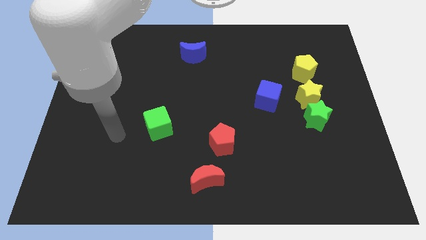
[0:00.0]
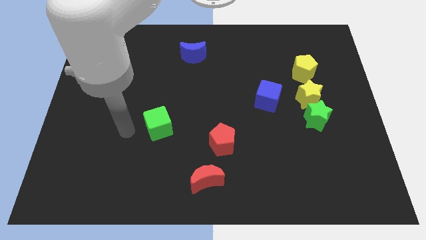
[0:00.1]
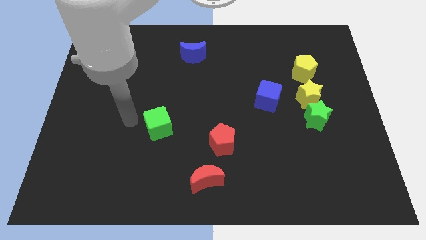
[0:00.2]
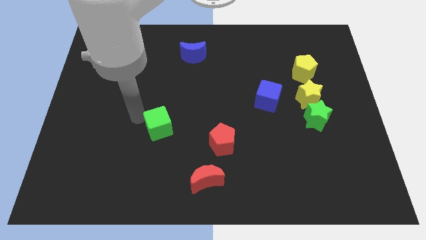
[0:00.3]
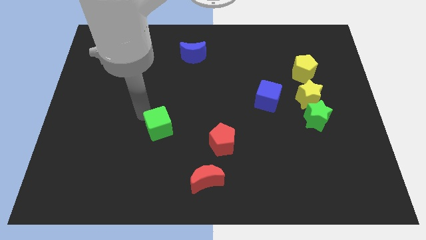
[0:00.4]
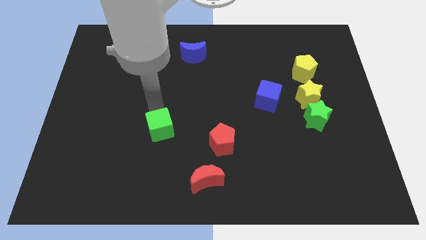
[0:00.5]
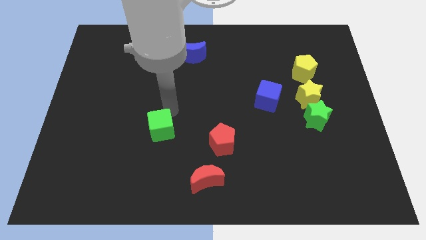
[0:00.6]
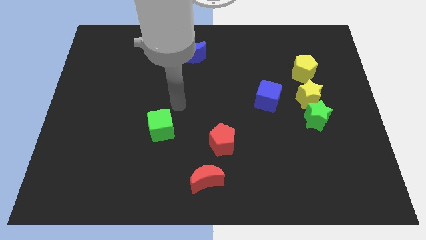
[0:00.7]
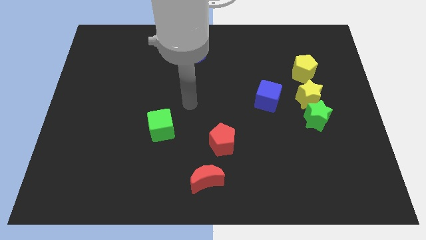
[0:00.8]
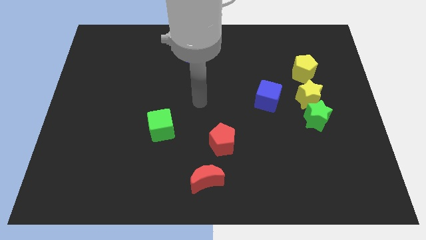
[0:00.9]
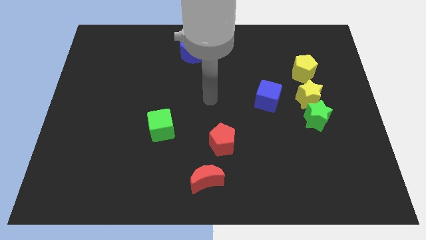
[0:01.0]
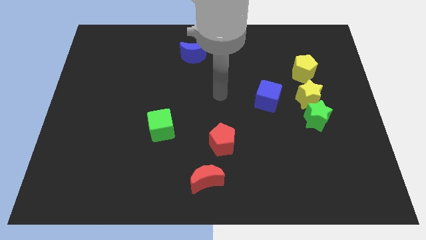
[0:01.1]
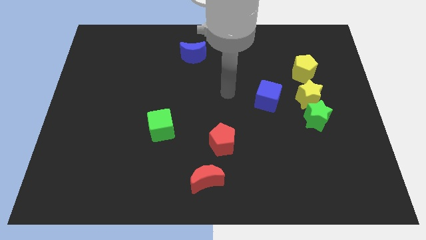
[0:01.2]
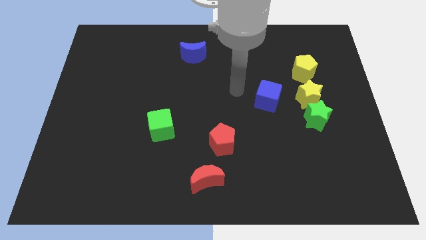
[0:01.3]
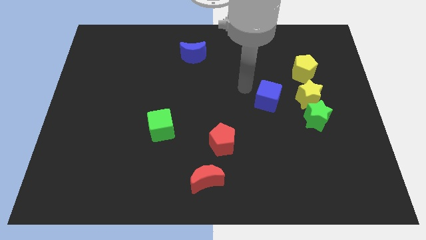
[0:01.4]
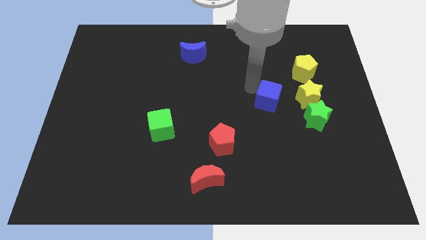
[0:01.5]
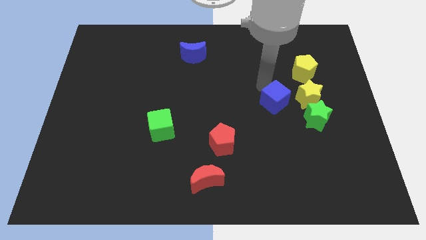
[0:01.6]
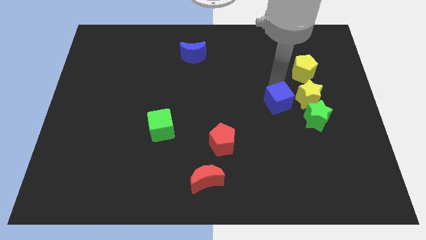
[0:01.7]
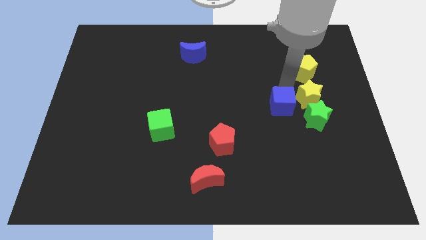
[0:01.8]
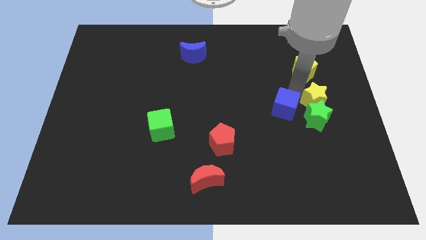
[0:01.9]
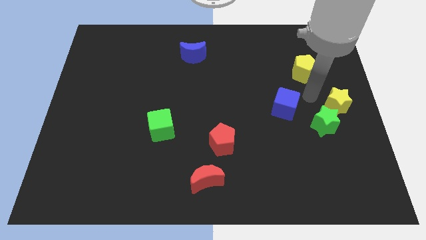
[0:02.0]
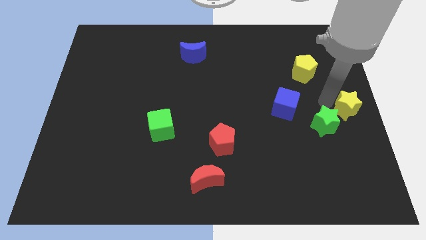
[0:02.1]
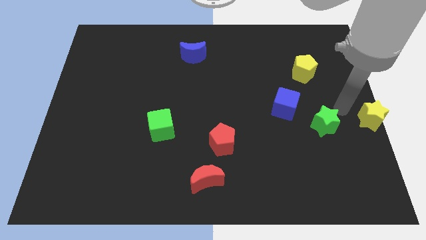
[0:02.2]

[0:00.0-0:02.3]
move the green star away from the yellow star

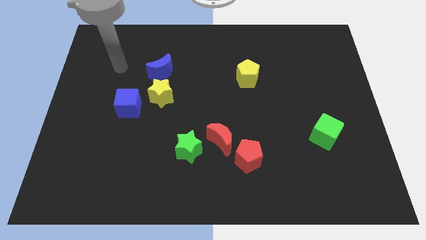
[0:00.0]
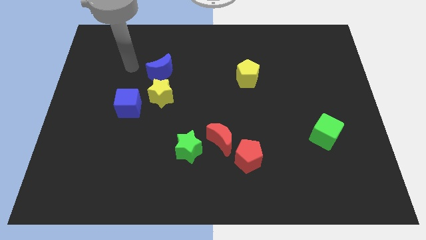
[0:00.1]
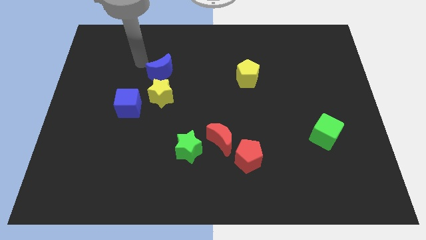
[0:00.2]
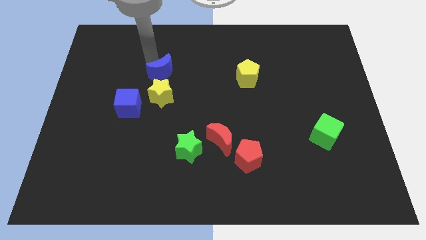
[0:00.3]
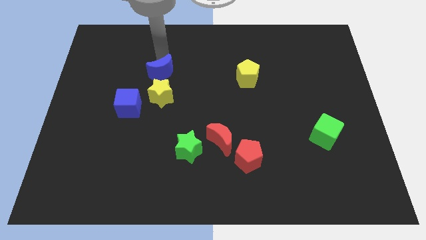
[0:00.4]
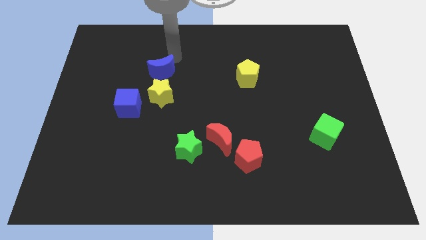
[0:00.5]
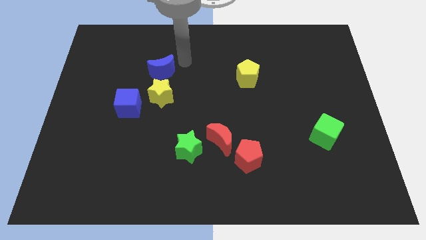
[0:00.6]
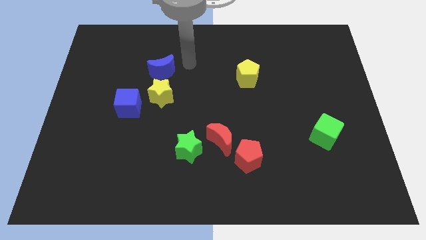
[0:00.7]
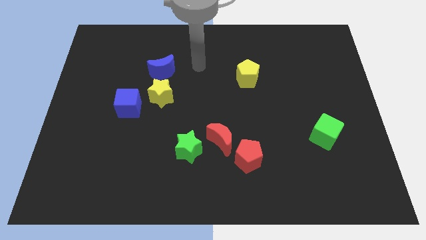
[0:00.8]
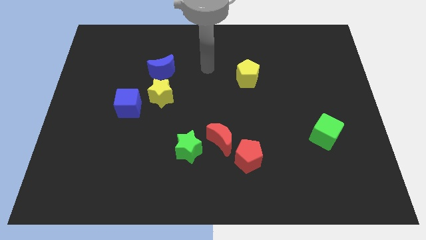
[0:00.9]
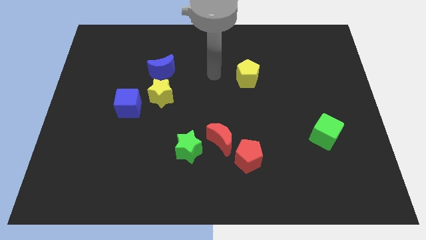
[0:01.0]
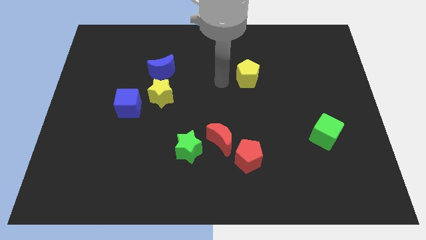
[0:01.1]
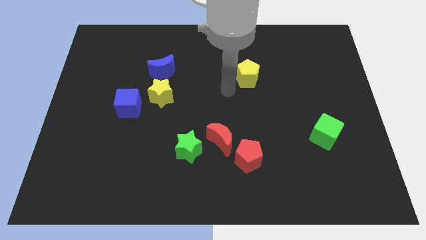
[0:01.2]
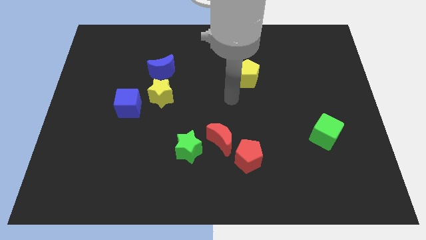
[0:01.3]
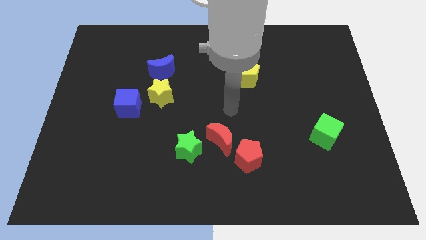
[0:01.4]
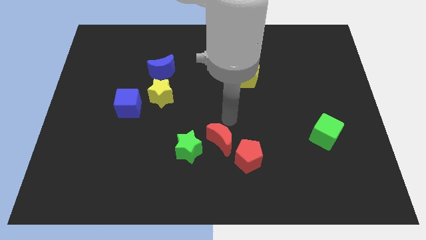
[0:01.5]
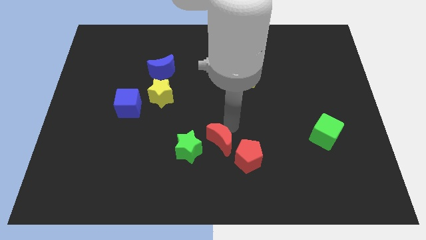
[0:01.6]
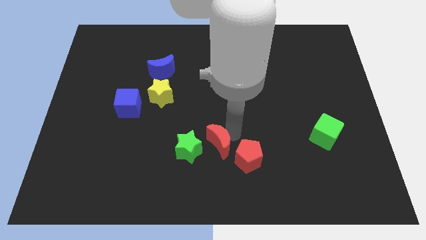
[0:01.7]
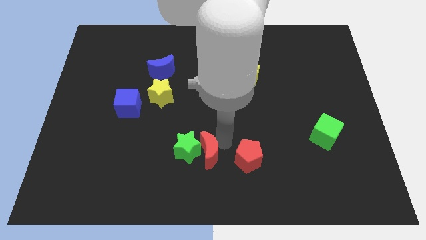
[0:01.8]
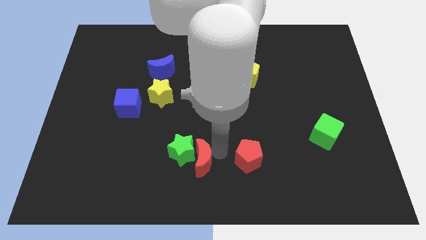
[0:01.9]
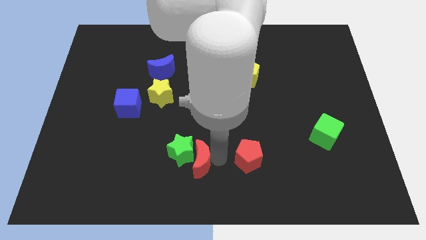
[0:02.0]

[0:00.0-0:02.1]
pull the red pentagon apart from the red moon

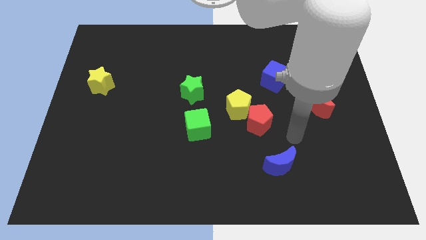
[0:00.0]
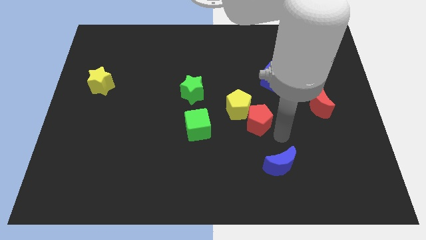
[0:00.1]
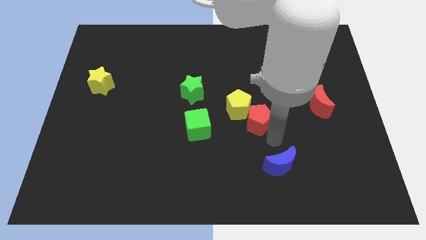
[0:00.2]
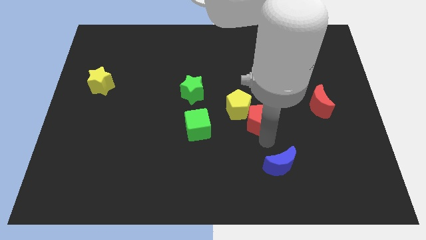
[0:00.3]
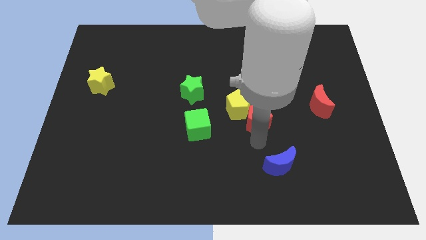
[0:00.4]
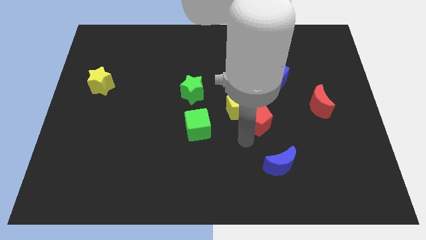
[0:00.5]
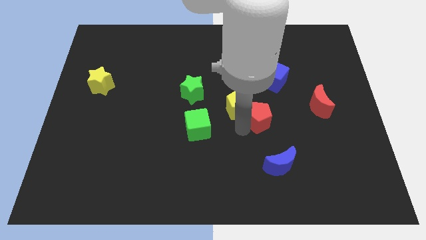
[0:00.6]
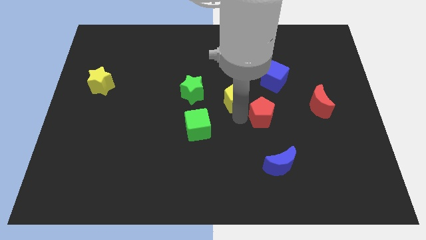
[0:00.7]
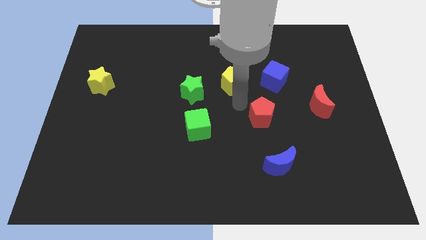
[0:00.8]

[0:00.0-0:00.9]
separate the red pentagon from the yellow pentagon

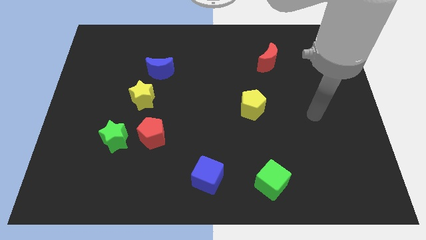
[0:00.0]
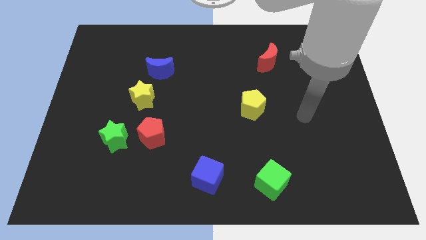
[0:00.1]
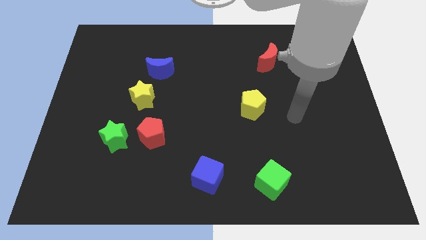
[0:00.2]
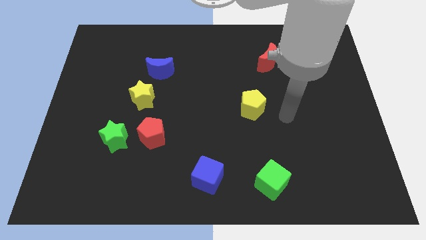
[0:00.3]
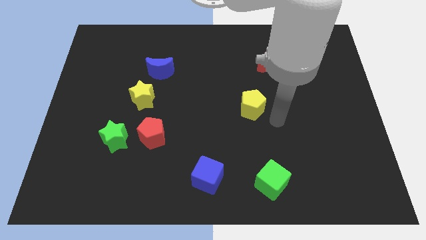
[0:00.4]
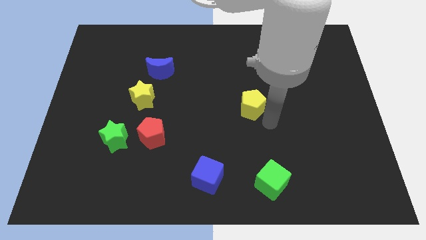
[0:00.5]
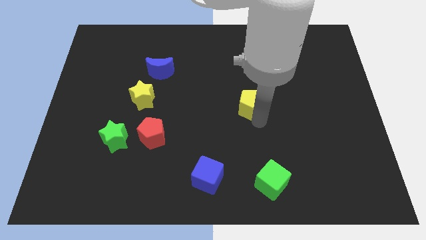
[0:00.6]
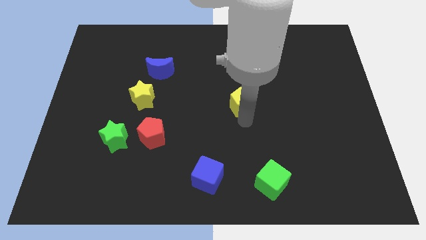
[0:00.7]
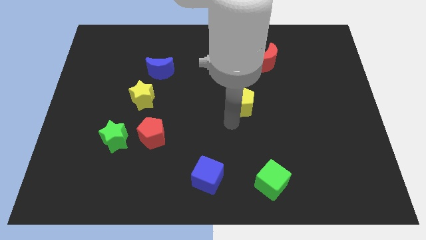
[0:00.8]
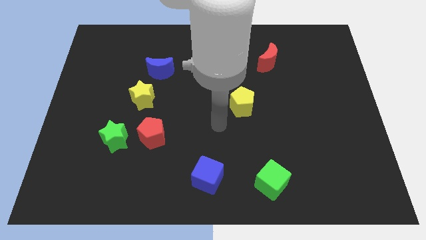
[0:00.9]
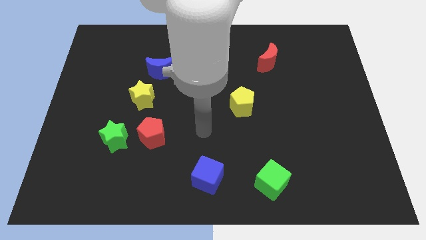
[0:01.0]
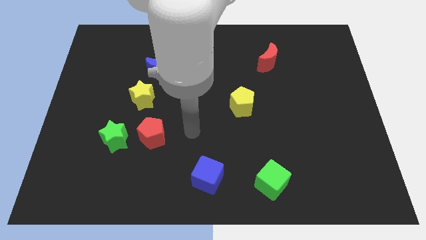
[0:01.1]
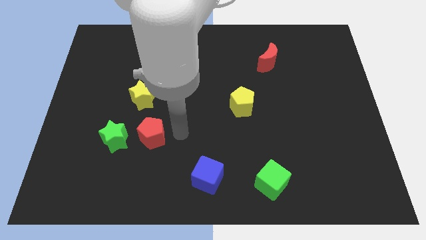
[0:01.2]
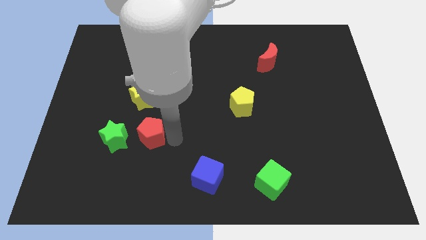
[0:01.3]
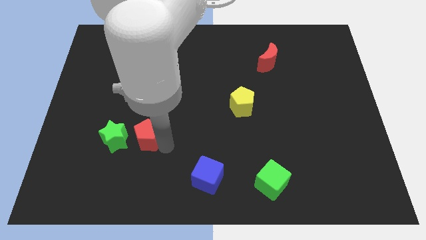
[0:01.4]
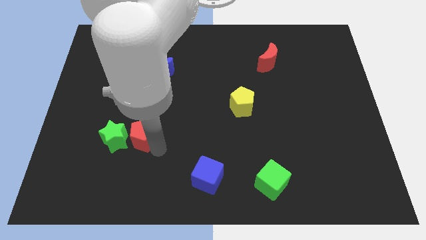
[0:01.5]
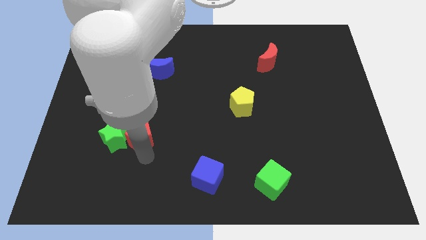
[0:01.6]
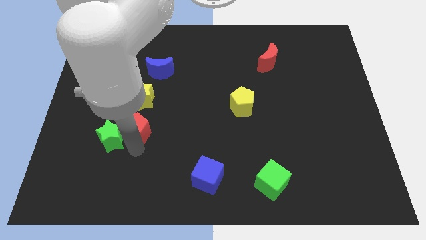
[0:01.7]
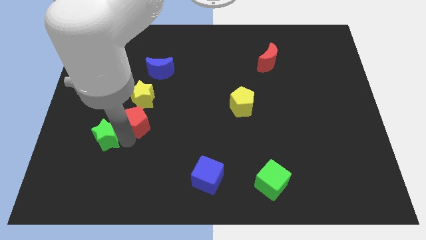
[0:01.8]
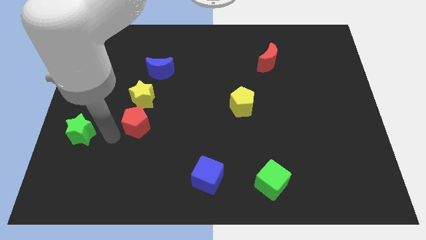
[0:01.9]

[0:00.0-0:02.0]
move the red pentagon away from the green star

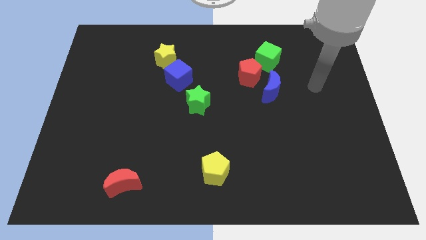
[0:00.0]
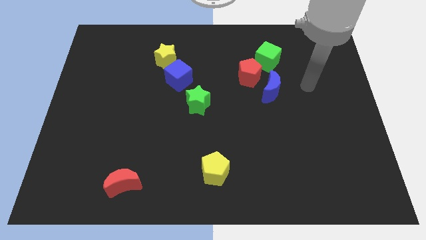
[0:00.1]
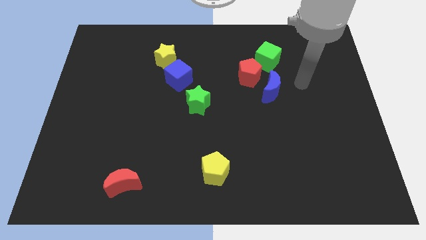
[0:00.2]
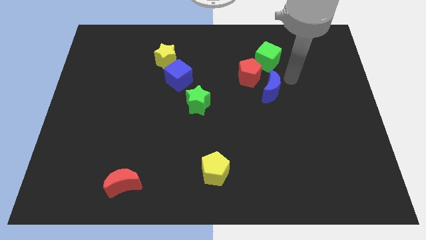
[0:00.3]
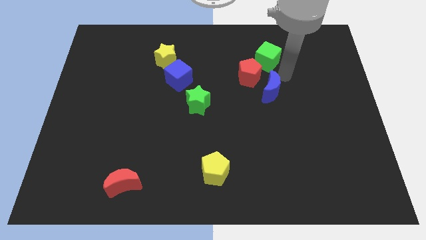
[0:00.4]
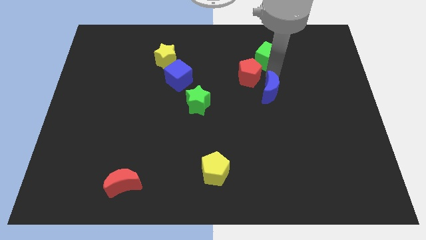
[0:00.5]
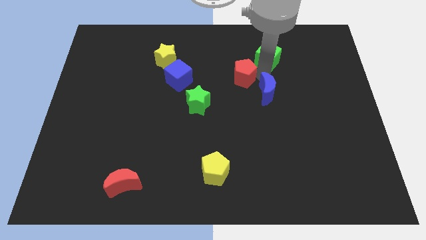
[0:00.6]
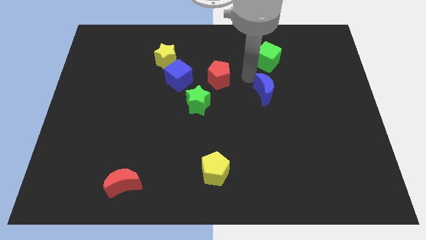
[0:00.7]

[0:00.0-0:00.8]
move the blue moon away from the red pentagon

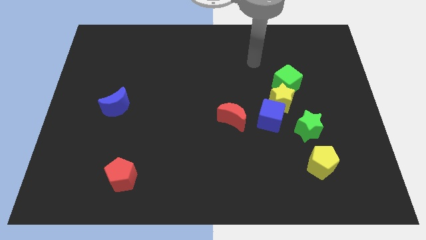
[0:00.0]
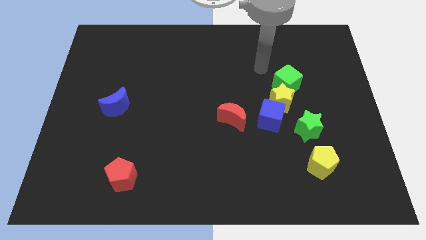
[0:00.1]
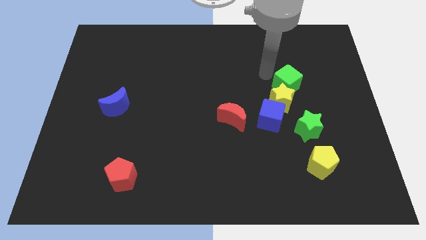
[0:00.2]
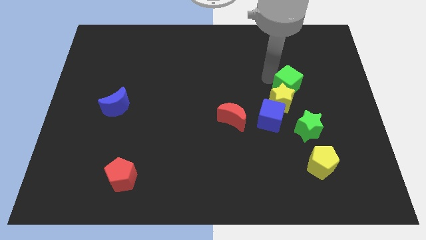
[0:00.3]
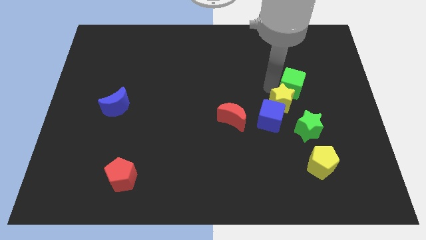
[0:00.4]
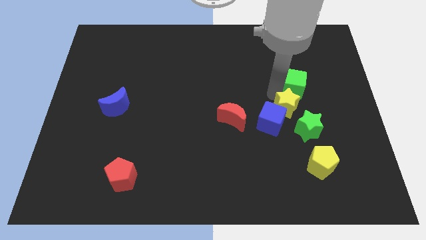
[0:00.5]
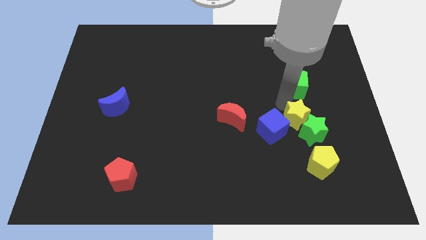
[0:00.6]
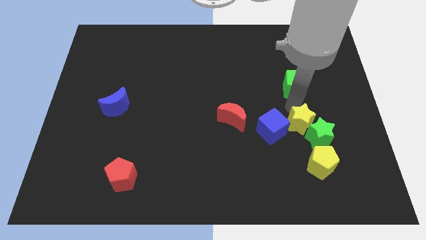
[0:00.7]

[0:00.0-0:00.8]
separate the green cube from the yellow star

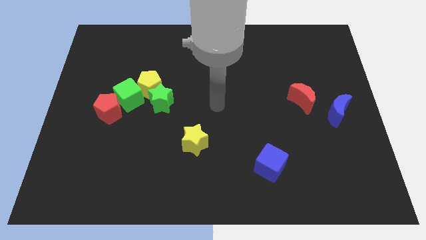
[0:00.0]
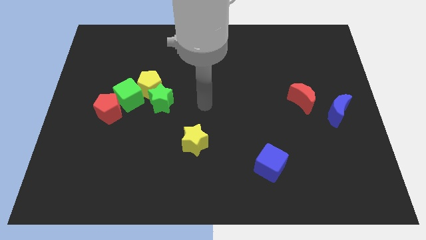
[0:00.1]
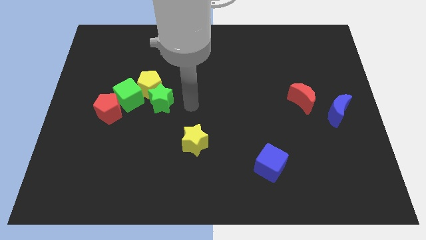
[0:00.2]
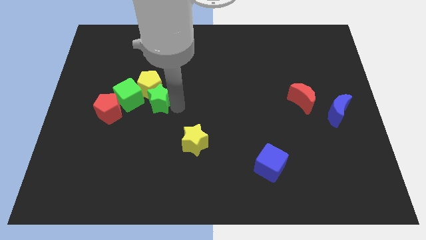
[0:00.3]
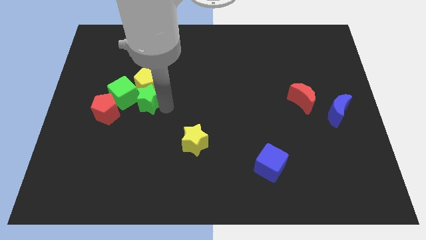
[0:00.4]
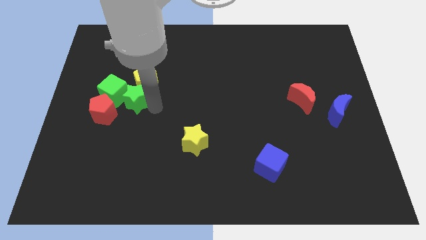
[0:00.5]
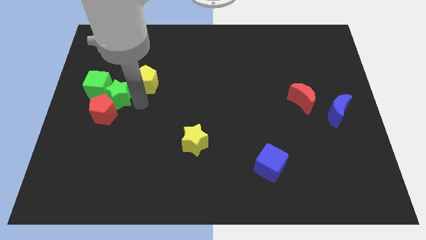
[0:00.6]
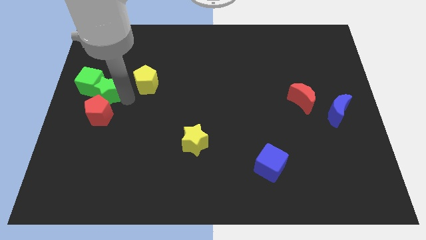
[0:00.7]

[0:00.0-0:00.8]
pull the yellow pentagon apart from the green star and green cube
